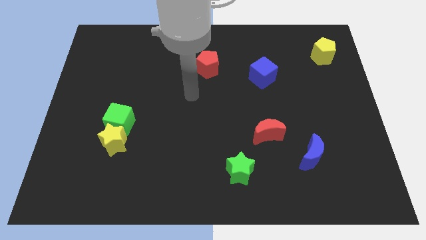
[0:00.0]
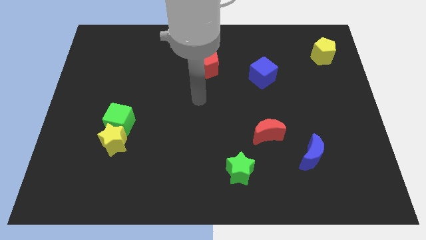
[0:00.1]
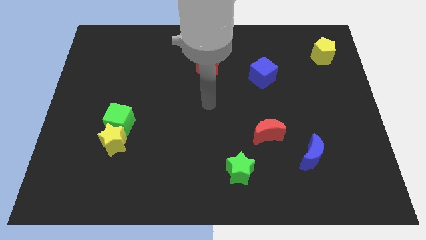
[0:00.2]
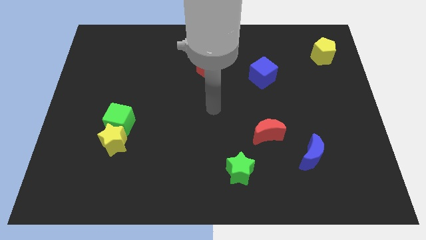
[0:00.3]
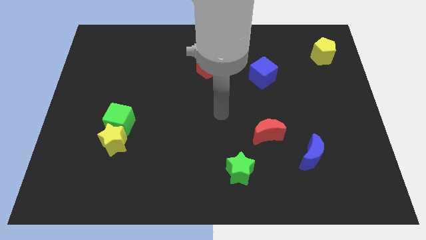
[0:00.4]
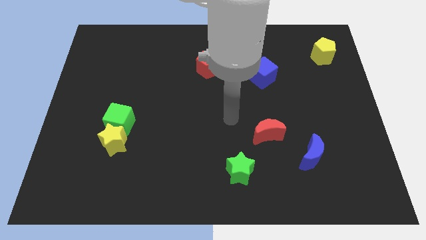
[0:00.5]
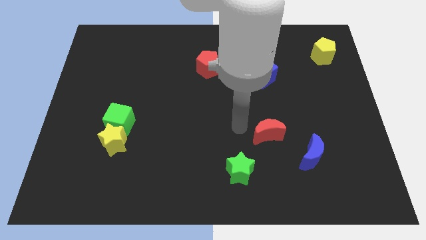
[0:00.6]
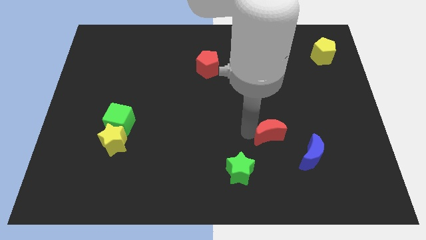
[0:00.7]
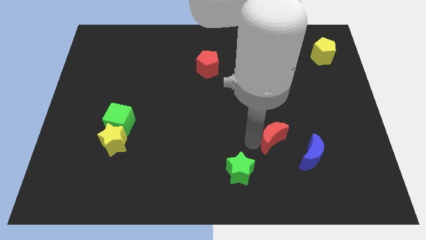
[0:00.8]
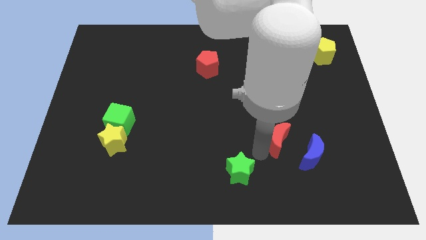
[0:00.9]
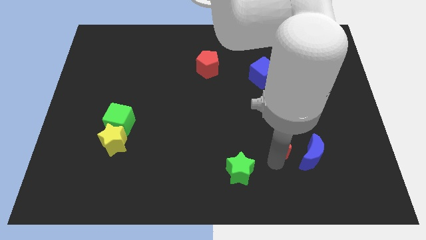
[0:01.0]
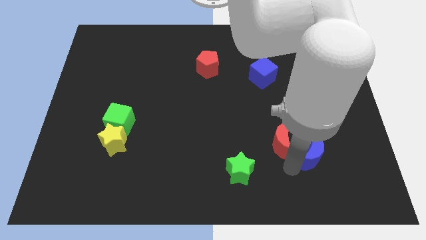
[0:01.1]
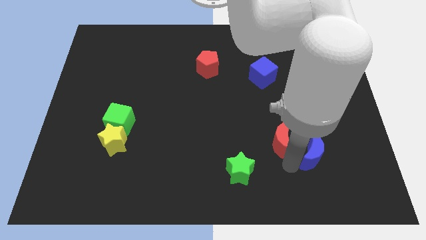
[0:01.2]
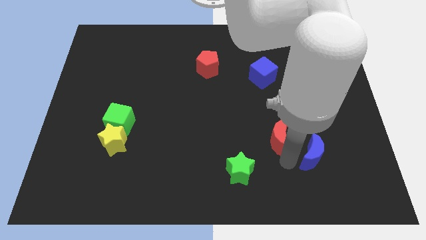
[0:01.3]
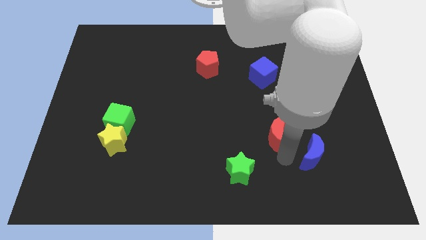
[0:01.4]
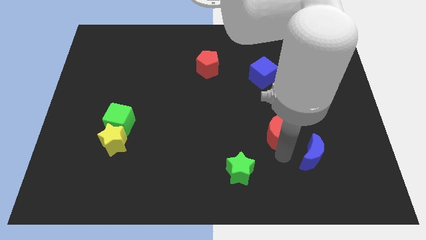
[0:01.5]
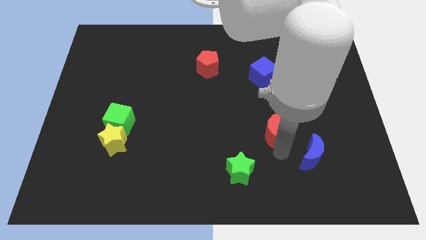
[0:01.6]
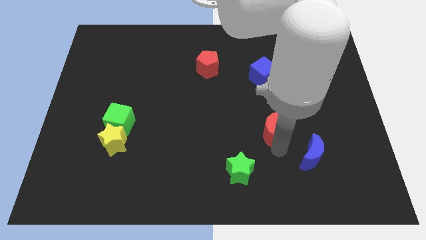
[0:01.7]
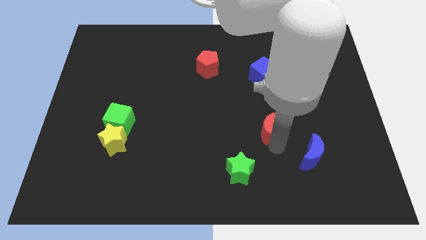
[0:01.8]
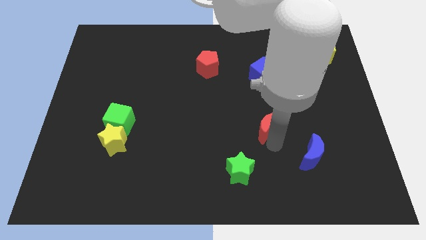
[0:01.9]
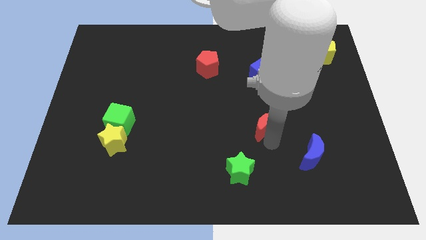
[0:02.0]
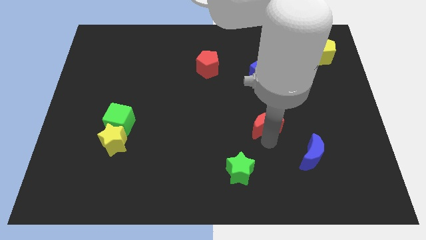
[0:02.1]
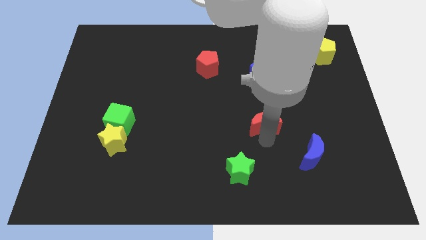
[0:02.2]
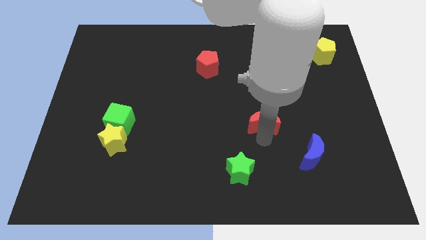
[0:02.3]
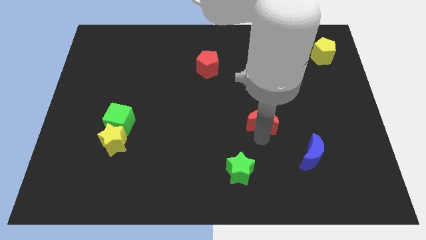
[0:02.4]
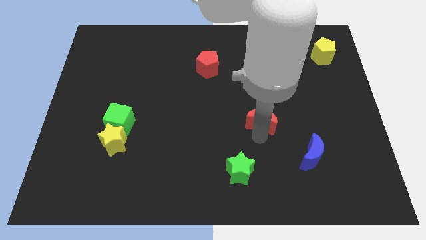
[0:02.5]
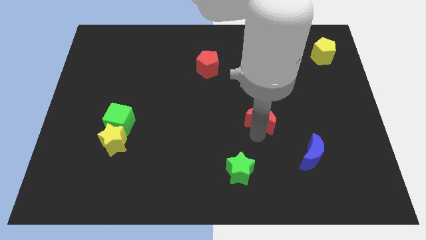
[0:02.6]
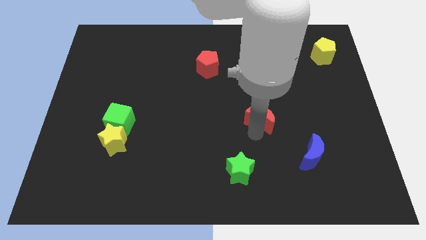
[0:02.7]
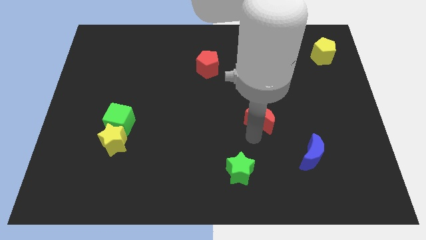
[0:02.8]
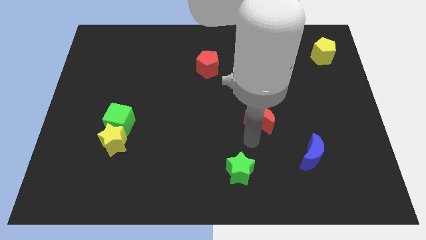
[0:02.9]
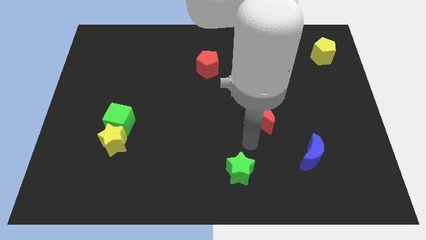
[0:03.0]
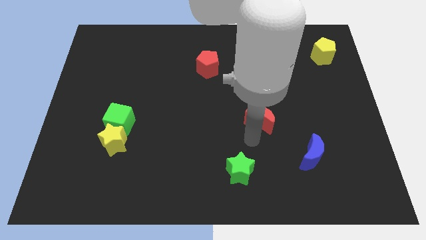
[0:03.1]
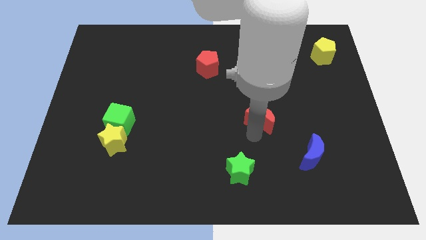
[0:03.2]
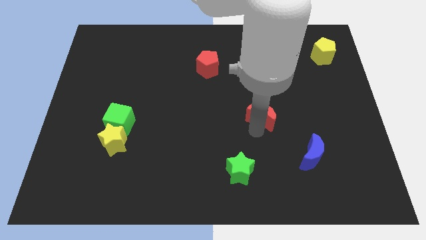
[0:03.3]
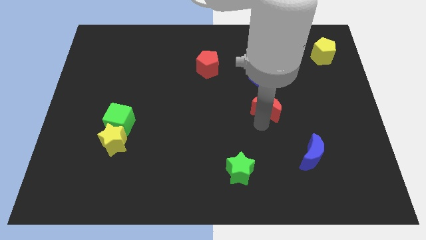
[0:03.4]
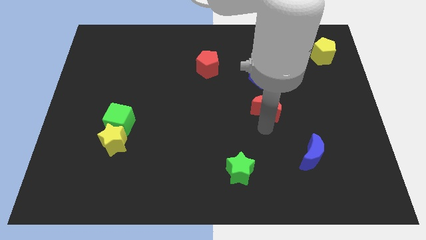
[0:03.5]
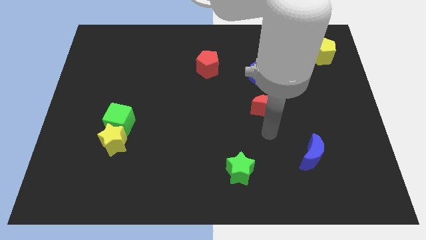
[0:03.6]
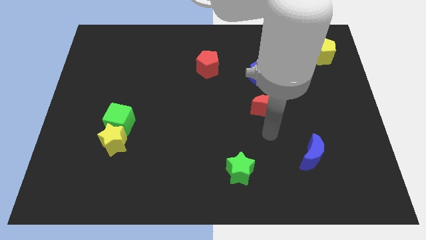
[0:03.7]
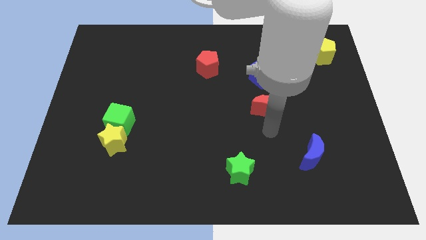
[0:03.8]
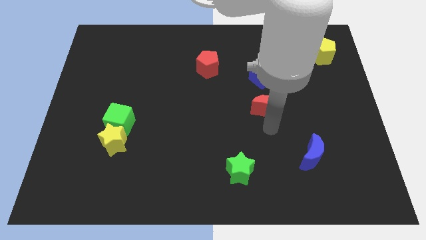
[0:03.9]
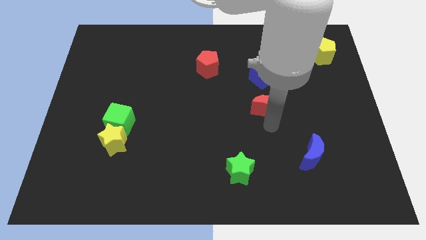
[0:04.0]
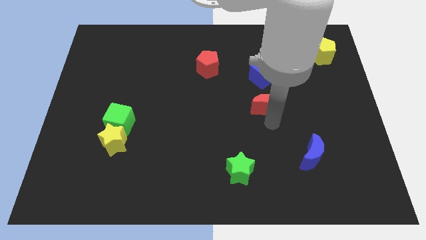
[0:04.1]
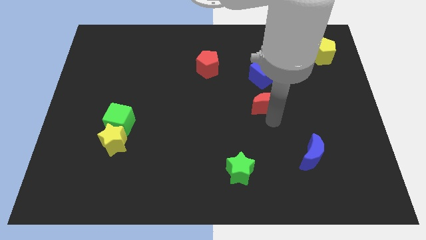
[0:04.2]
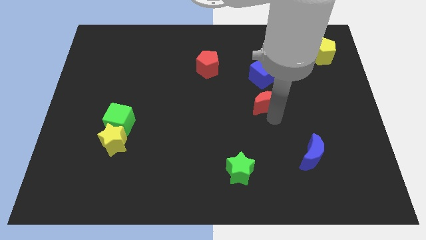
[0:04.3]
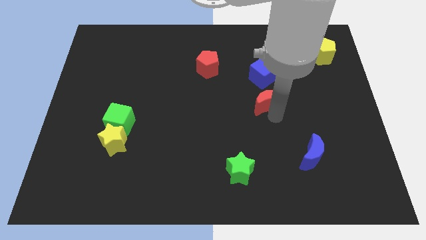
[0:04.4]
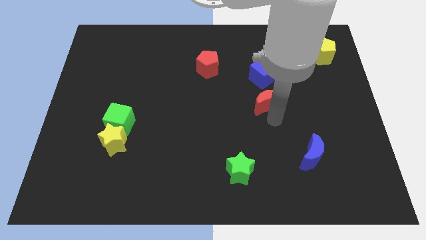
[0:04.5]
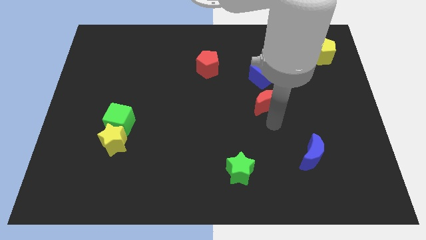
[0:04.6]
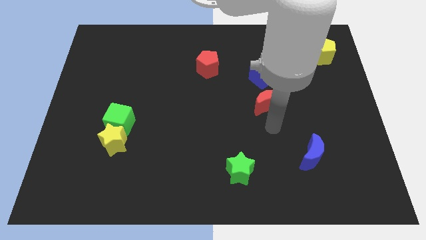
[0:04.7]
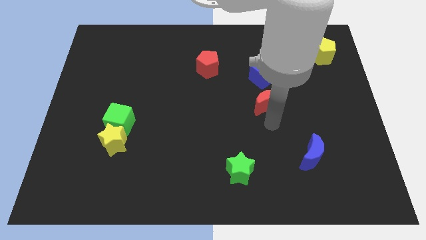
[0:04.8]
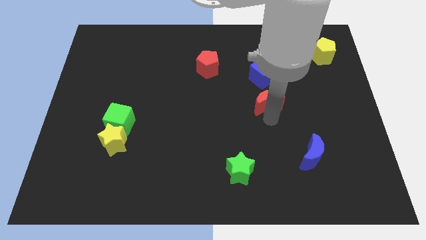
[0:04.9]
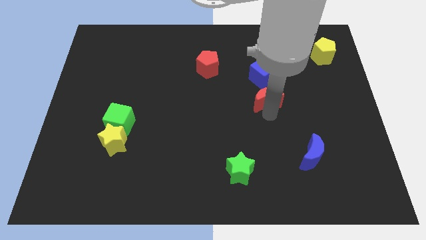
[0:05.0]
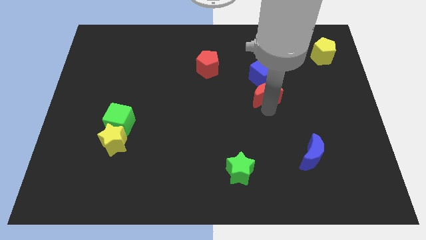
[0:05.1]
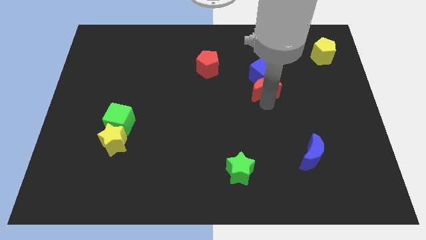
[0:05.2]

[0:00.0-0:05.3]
push the red moon close to the blue cube

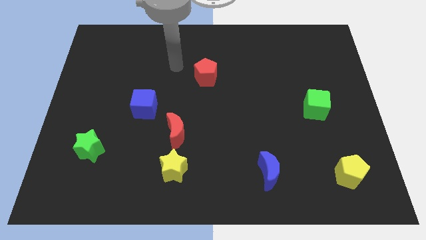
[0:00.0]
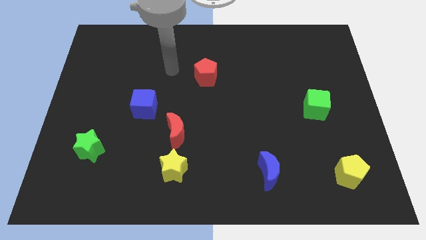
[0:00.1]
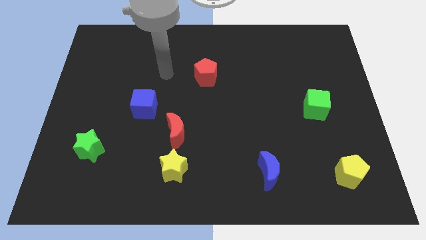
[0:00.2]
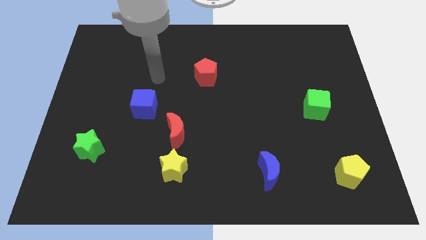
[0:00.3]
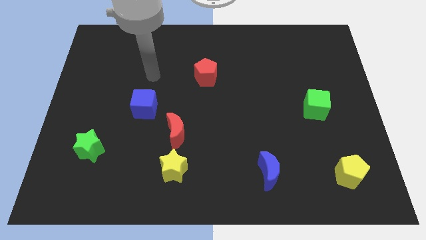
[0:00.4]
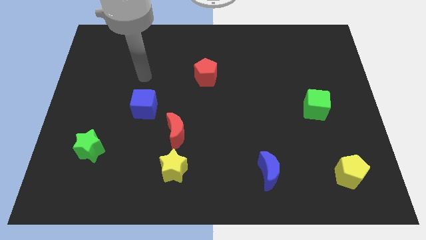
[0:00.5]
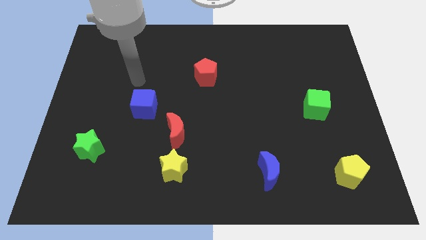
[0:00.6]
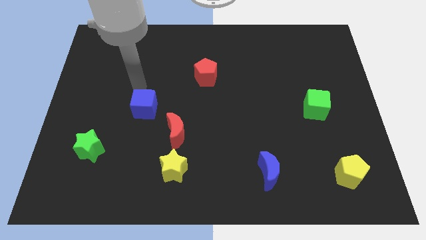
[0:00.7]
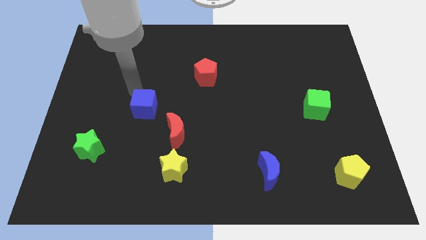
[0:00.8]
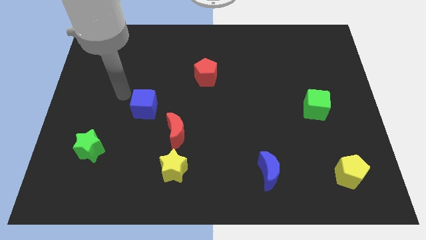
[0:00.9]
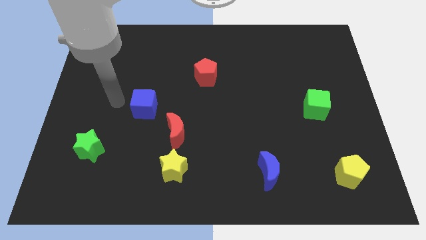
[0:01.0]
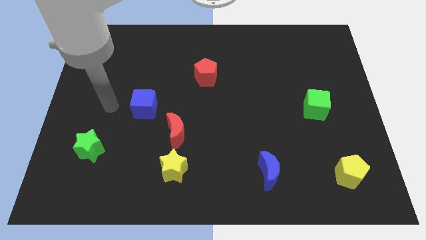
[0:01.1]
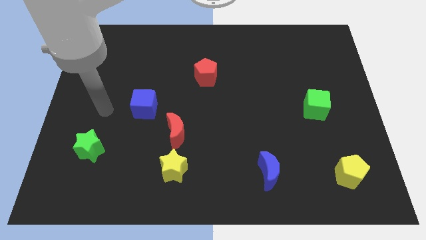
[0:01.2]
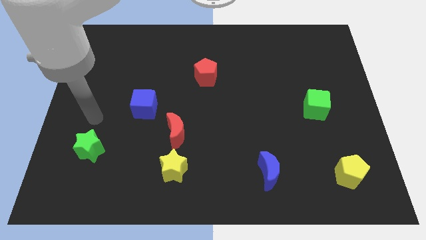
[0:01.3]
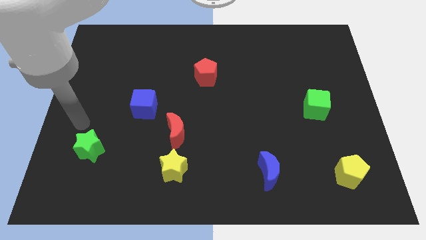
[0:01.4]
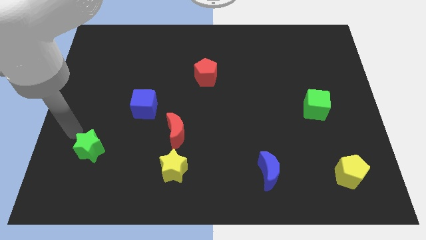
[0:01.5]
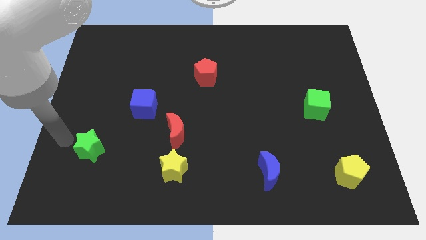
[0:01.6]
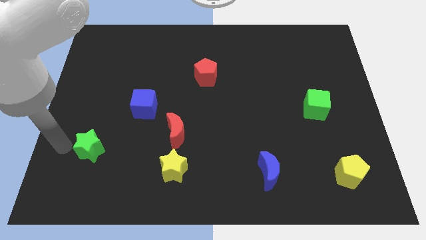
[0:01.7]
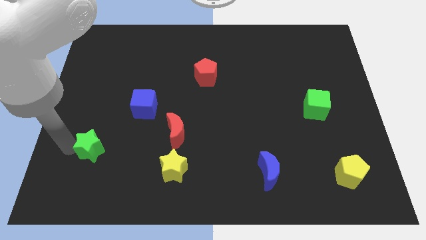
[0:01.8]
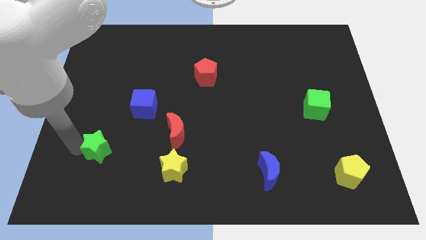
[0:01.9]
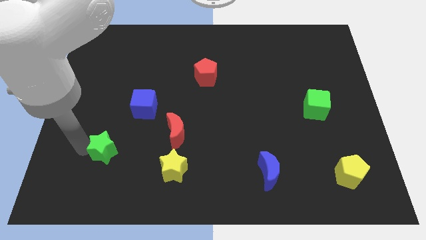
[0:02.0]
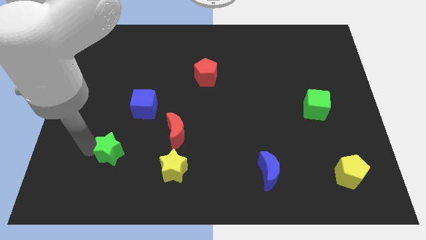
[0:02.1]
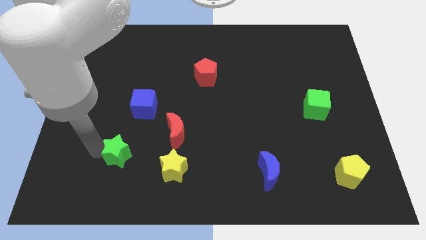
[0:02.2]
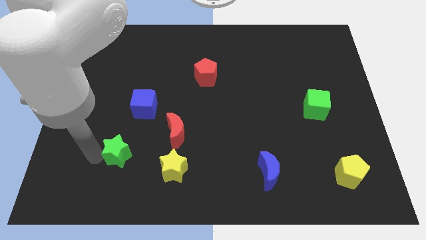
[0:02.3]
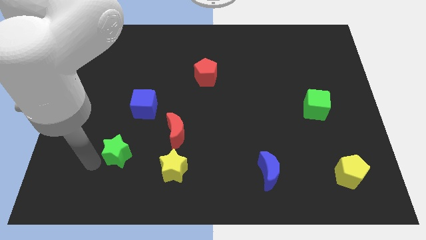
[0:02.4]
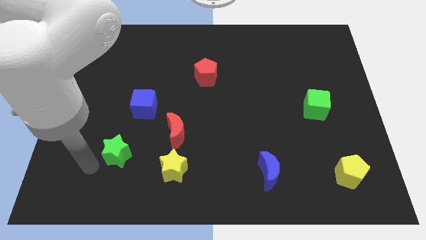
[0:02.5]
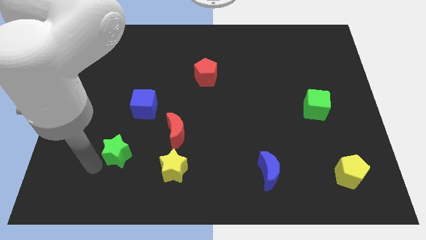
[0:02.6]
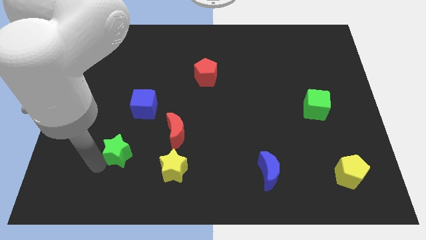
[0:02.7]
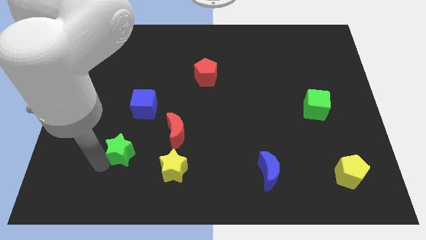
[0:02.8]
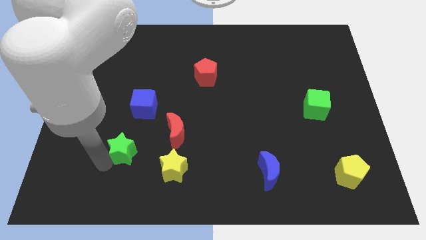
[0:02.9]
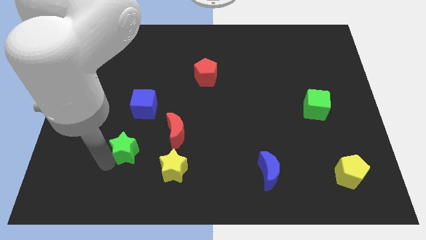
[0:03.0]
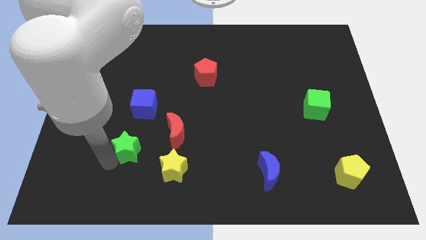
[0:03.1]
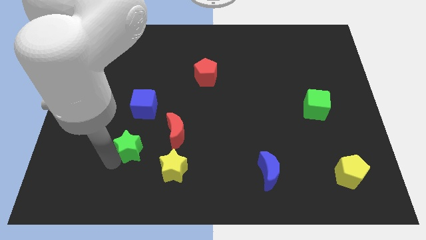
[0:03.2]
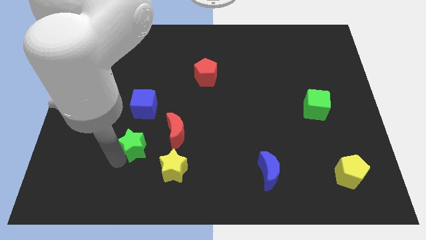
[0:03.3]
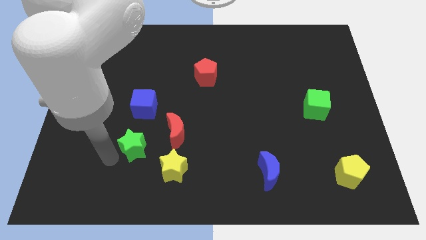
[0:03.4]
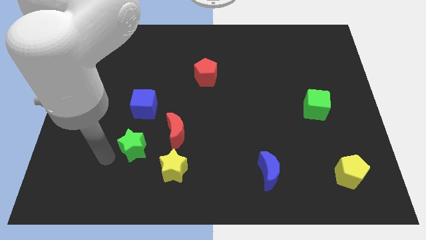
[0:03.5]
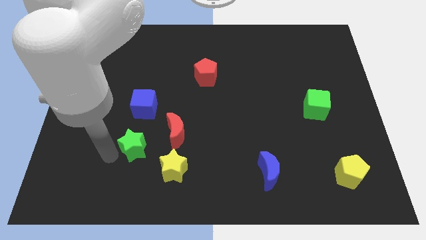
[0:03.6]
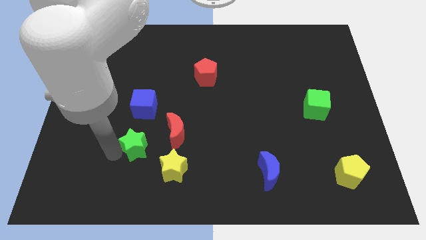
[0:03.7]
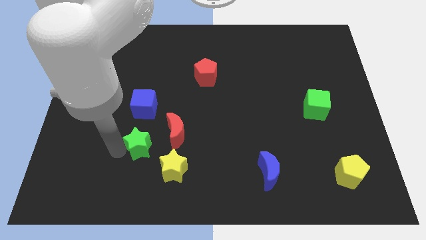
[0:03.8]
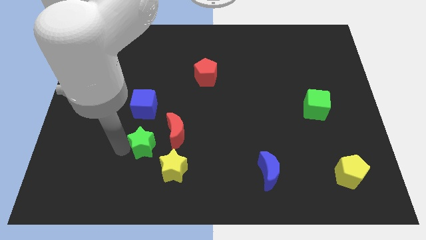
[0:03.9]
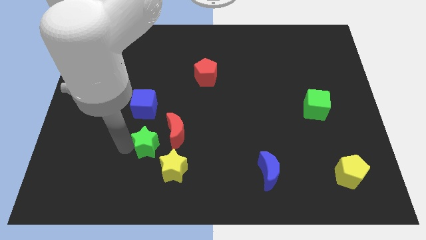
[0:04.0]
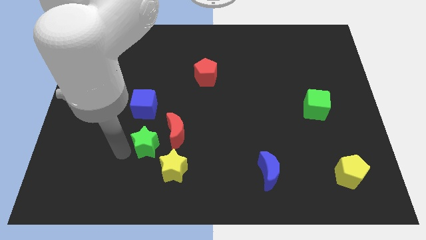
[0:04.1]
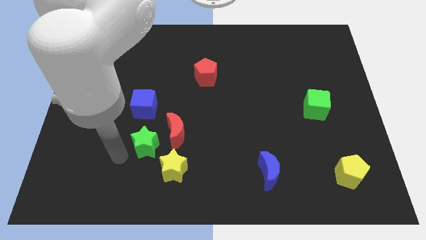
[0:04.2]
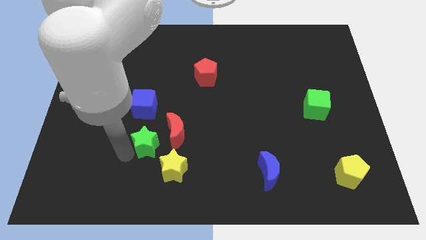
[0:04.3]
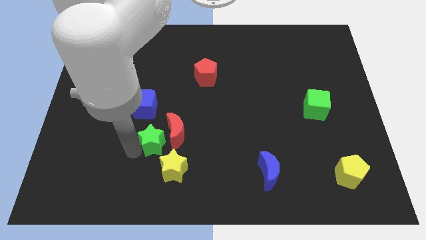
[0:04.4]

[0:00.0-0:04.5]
move the green star to the red moon
